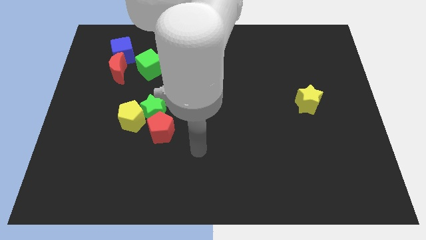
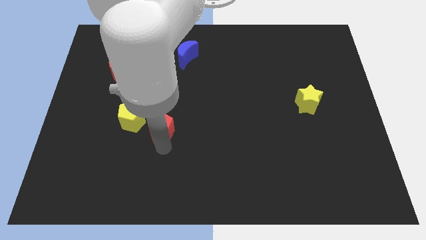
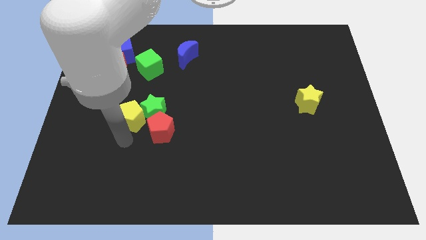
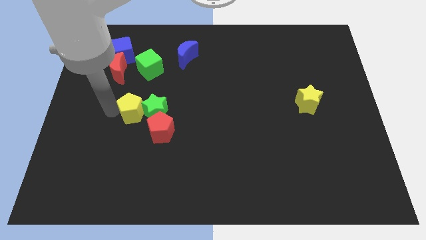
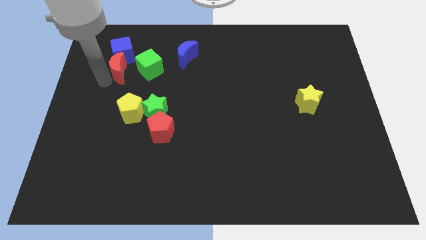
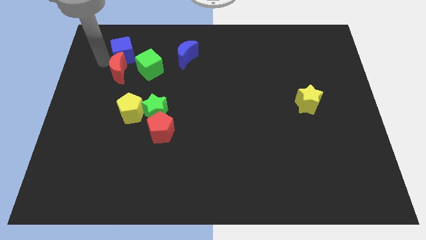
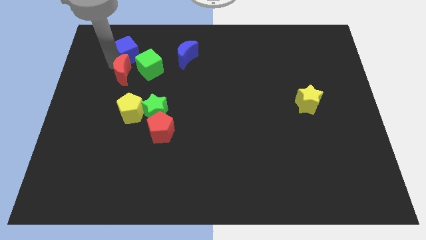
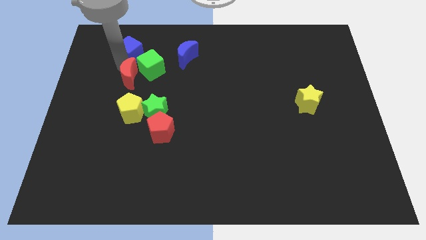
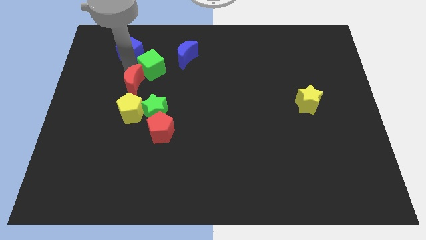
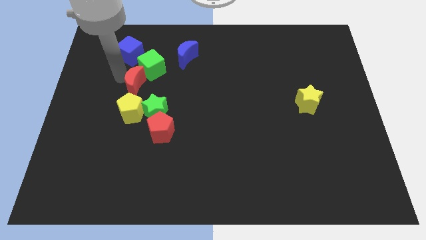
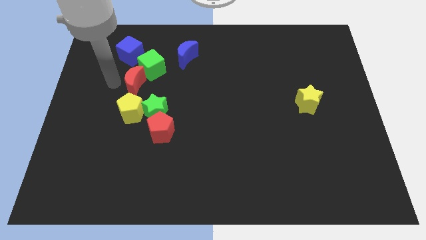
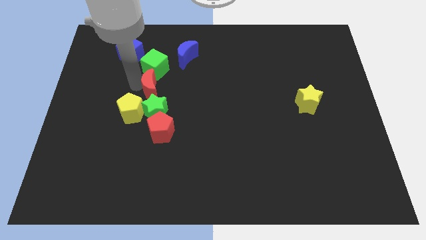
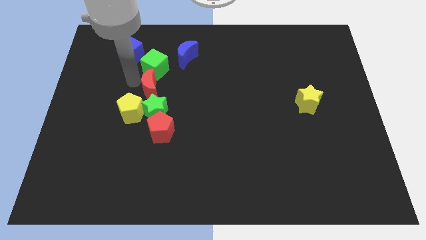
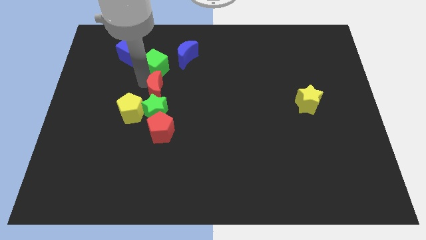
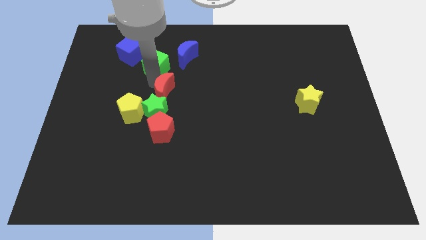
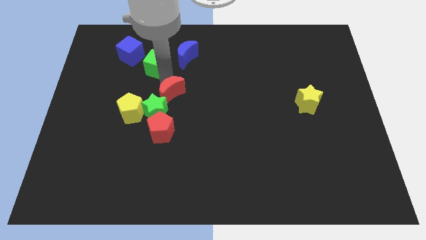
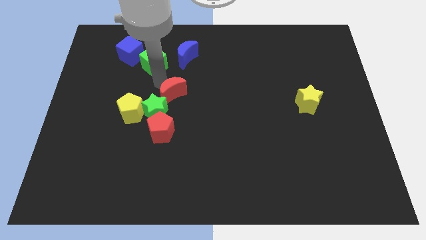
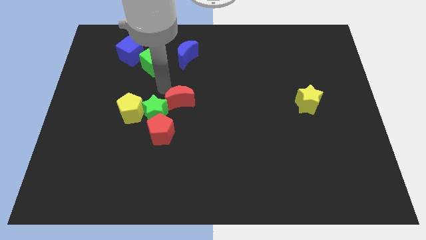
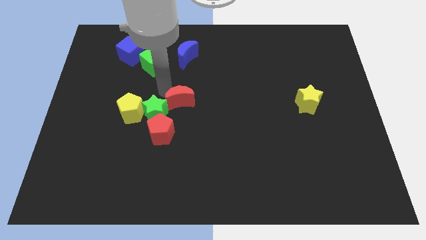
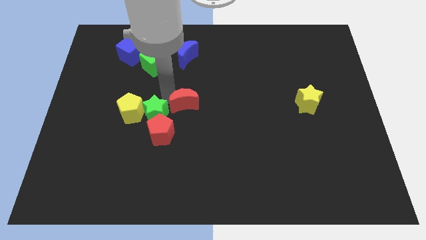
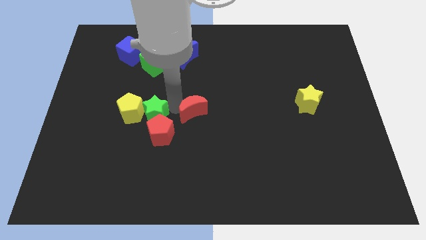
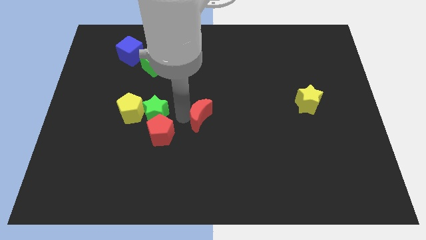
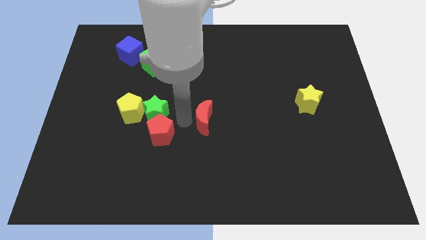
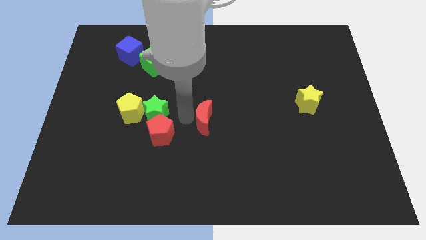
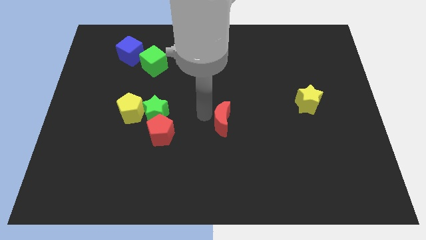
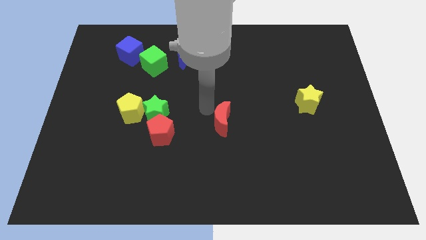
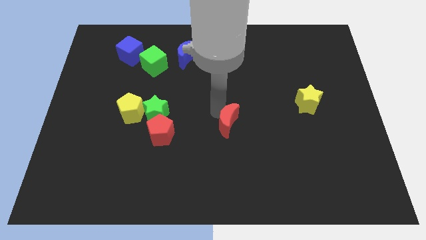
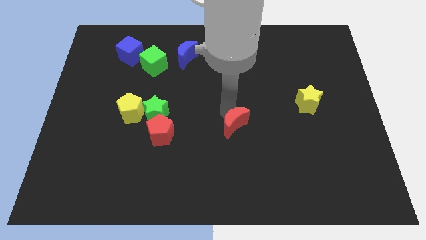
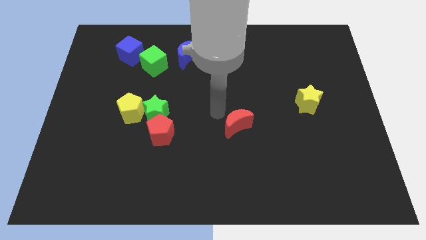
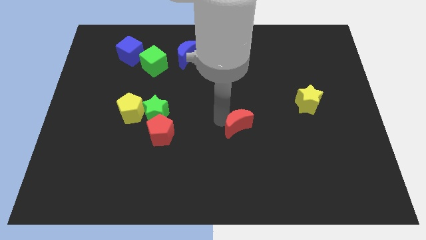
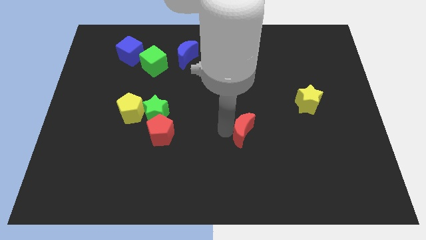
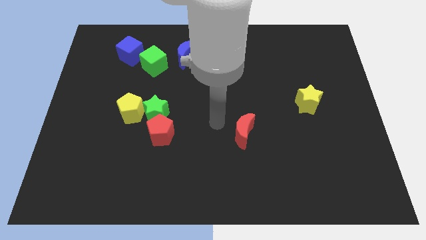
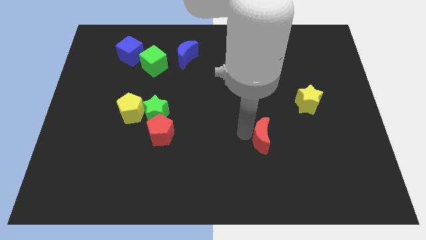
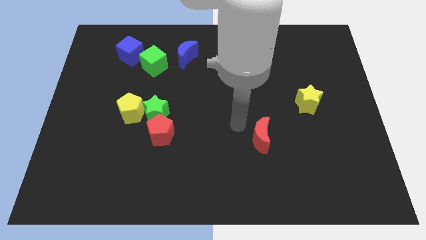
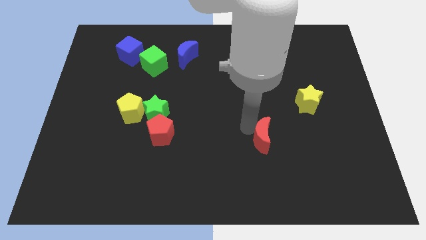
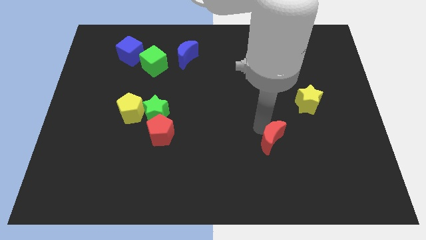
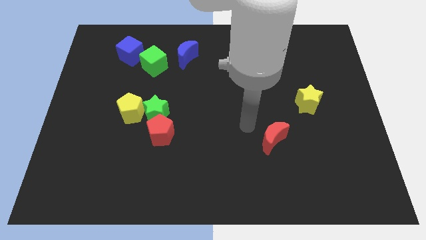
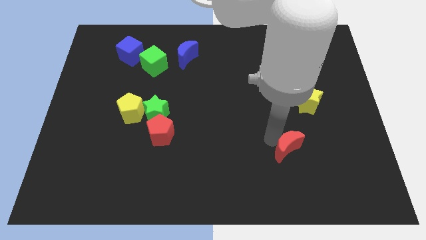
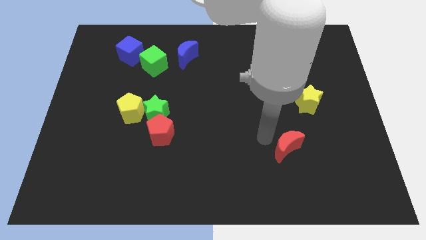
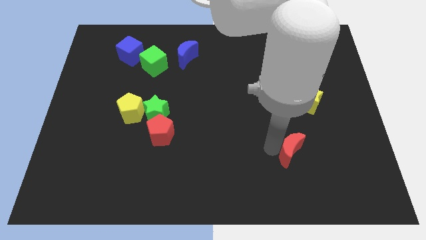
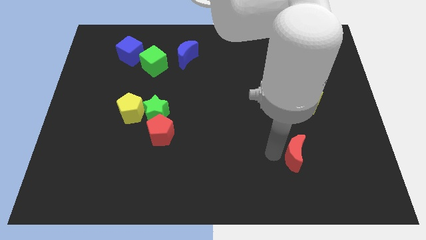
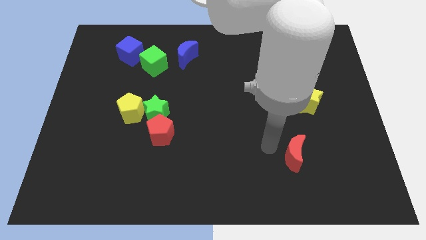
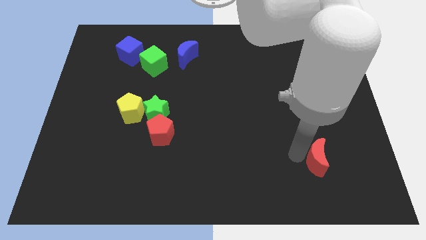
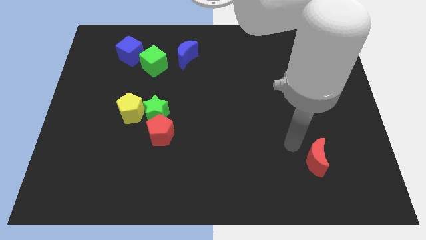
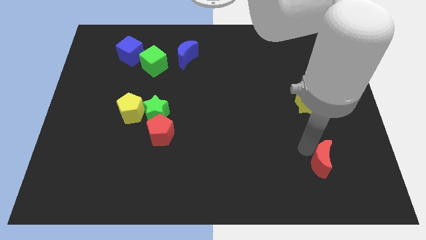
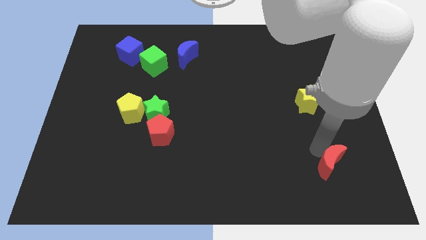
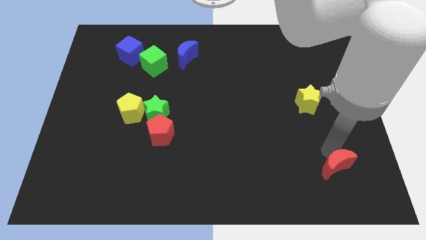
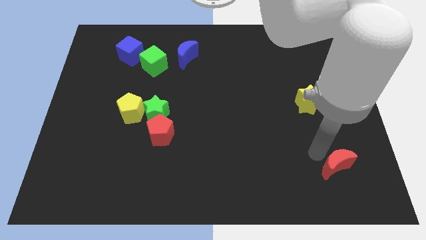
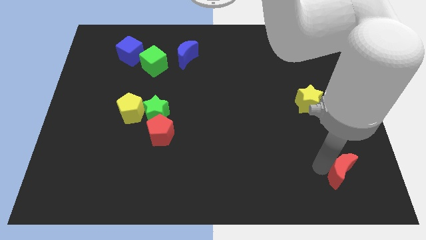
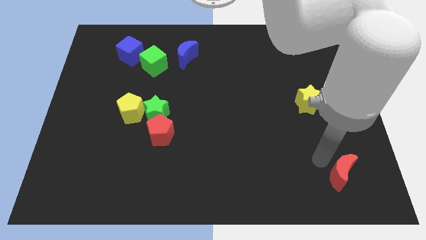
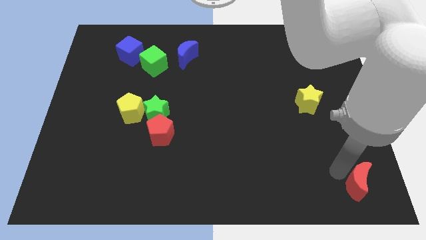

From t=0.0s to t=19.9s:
slide the red moon to the bottom right of the board

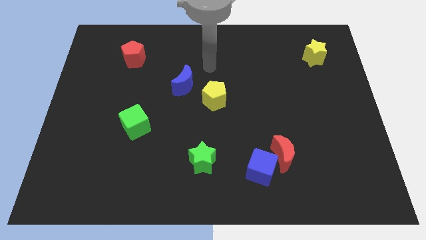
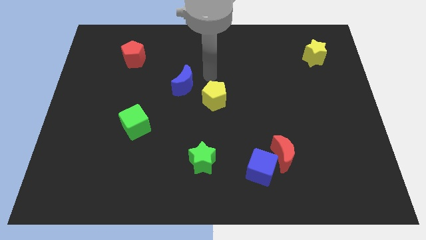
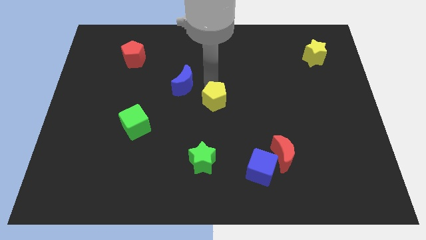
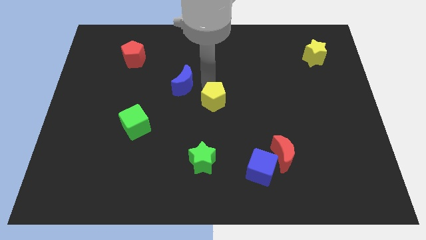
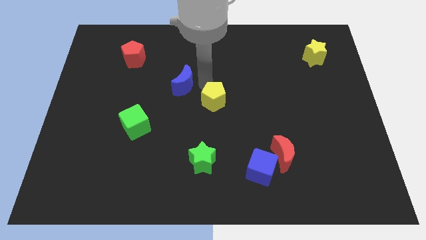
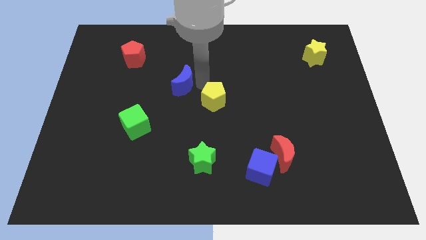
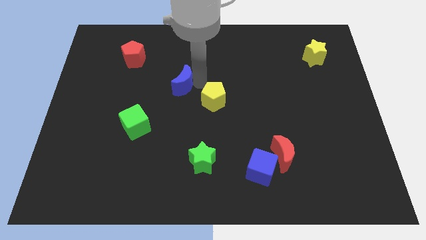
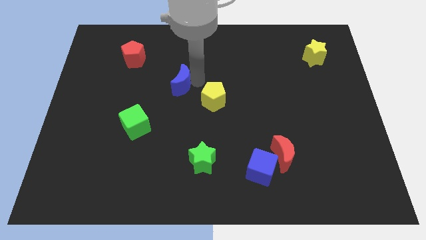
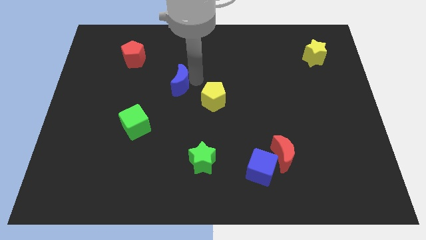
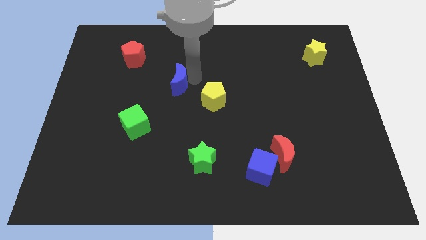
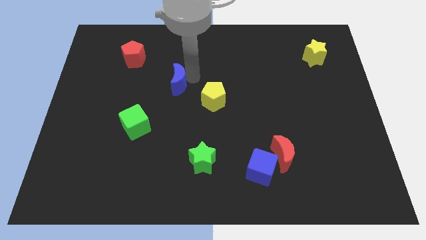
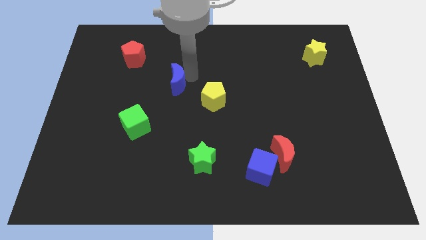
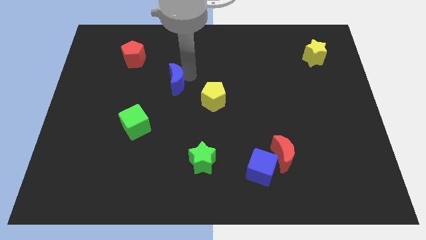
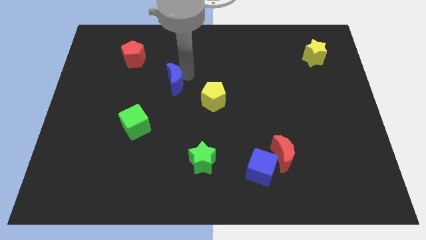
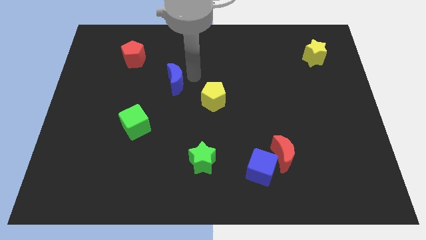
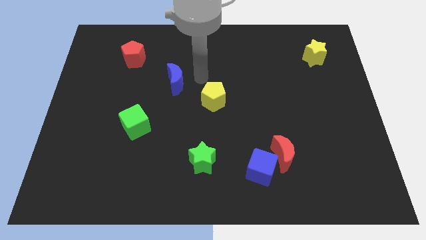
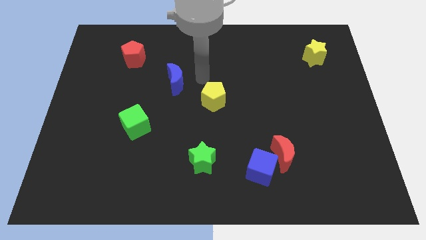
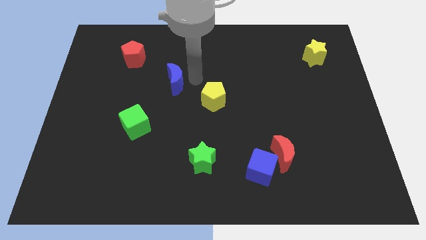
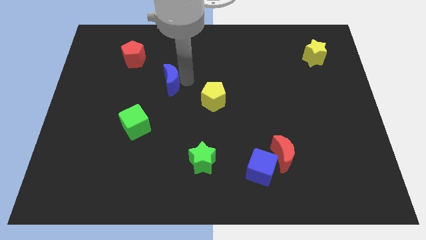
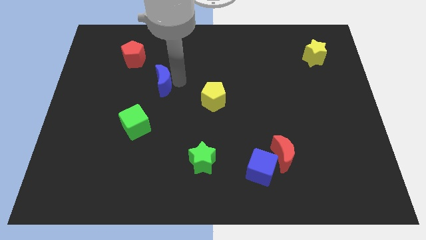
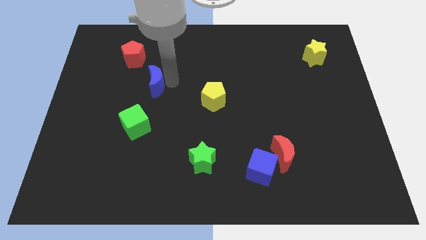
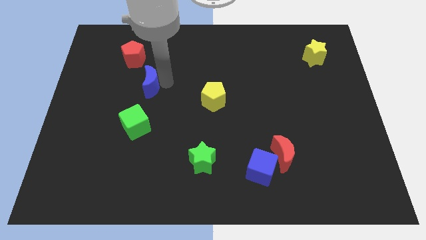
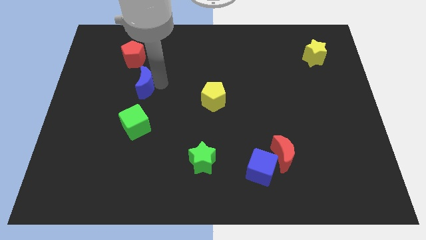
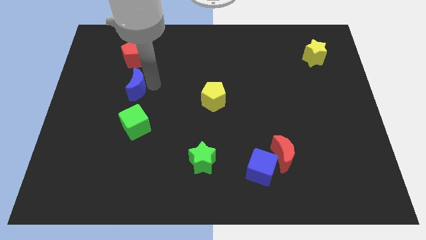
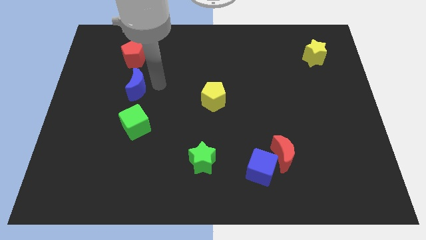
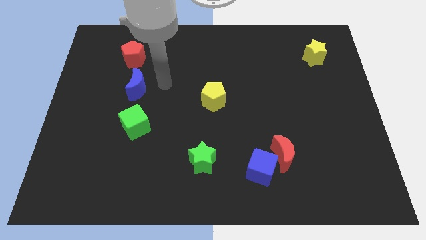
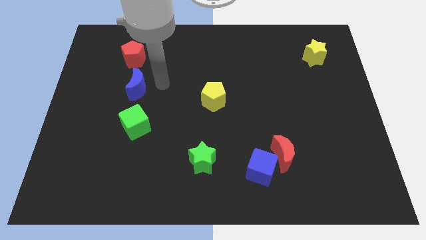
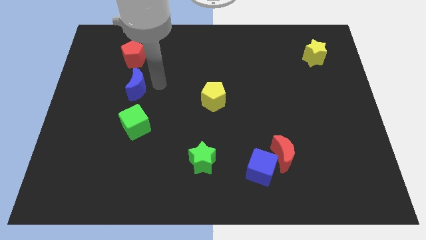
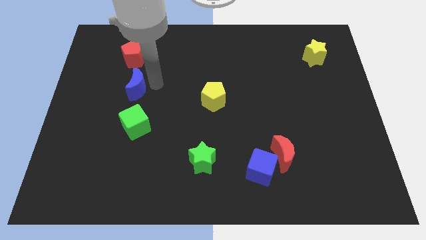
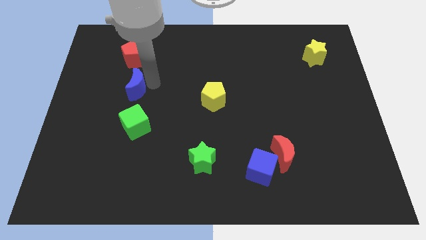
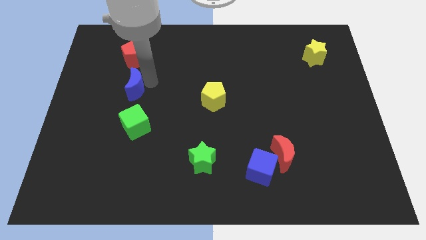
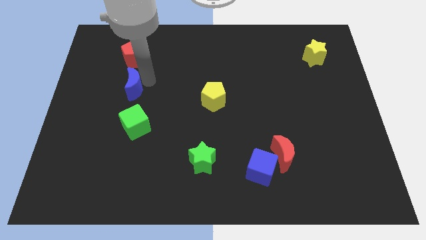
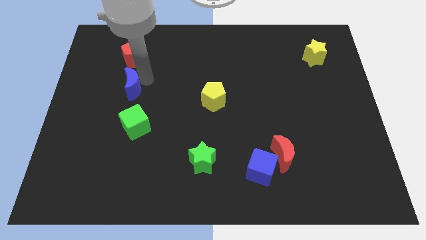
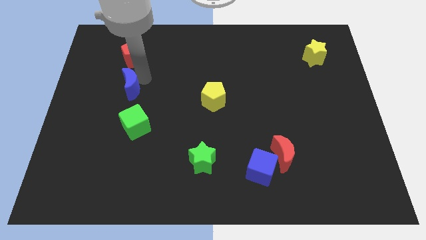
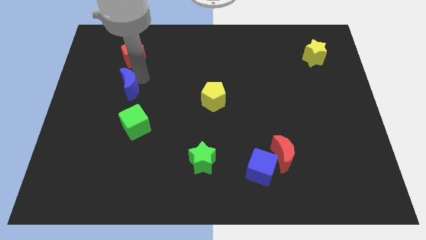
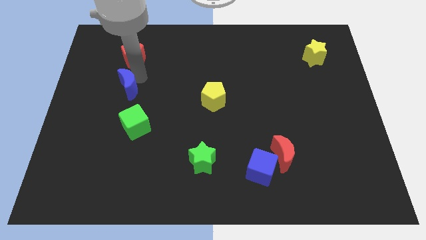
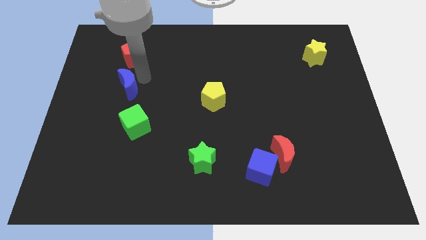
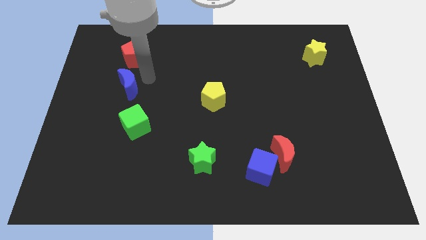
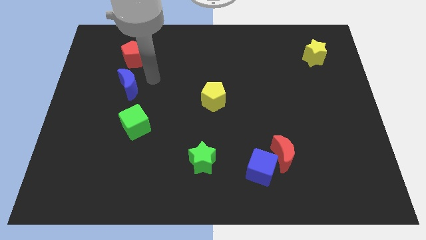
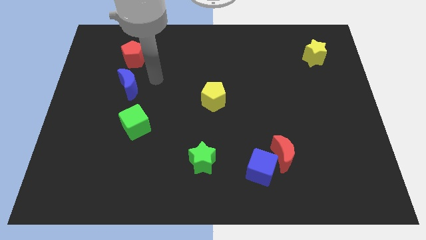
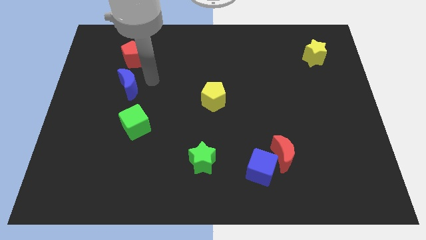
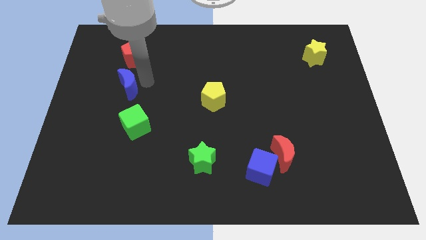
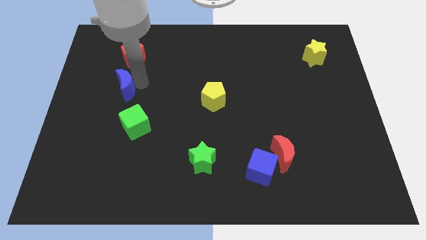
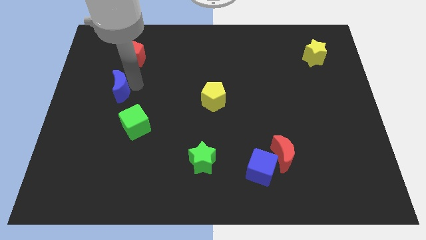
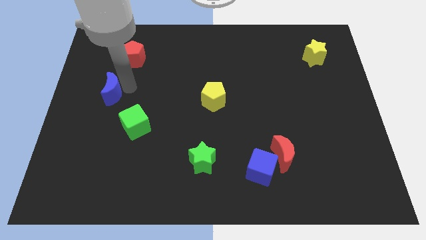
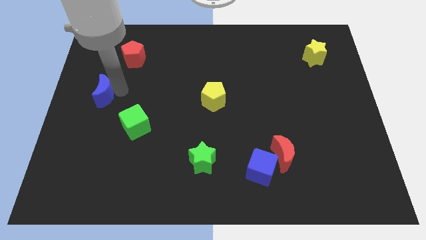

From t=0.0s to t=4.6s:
slide the blue moon to the left side
